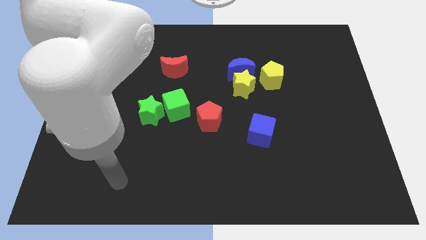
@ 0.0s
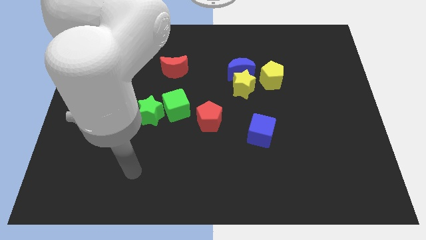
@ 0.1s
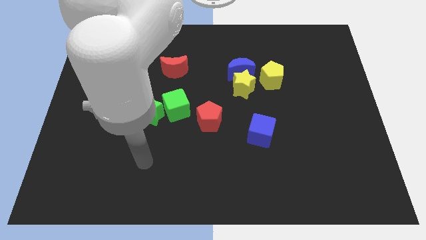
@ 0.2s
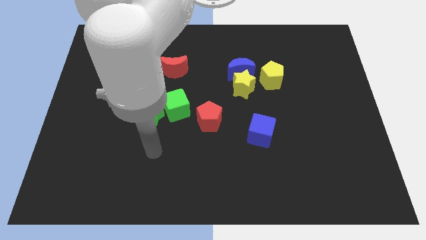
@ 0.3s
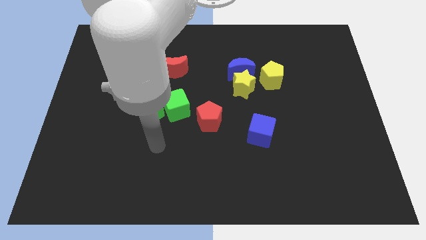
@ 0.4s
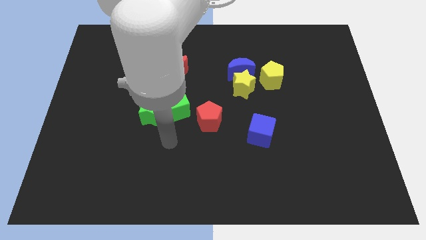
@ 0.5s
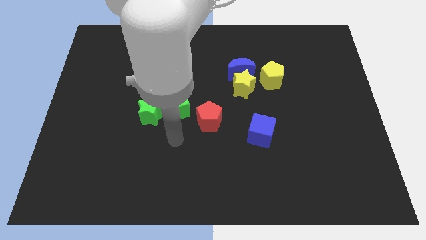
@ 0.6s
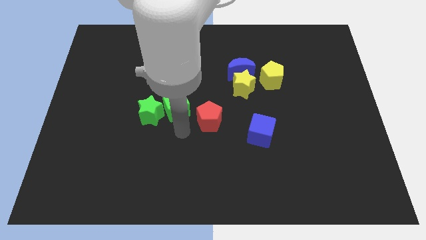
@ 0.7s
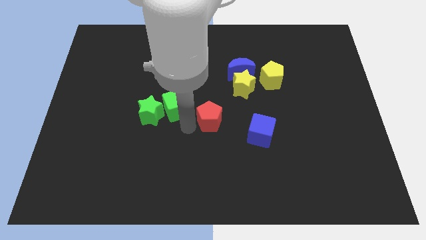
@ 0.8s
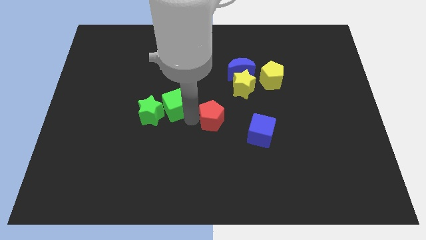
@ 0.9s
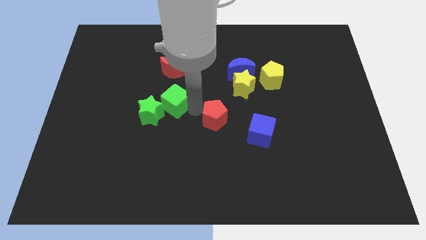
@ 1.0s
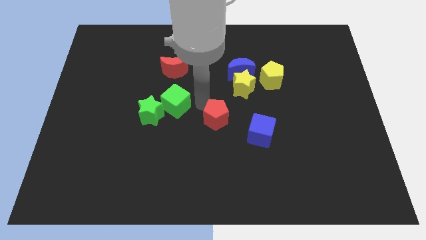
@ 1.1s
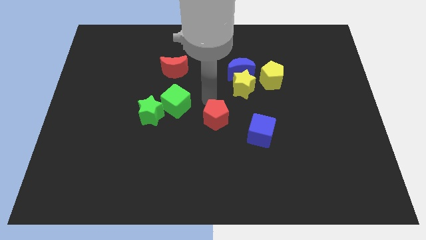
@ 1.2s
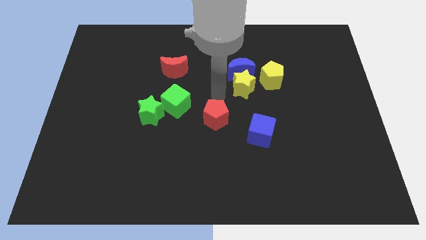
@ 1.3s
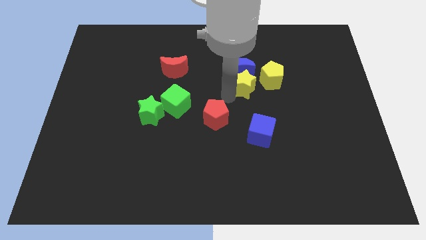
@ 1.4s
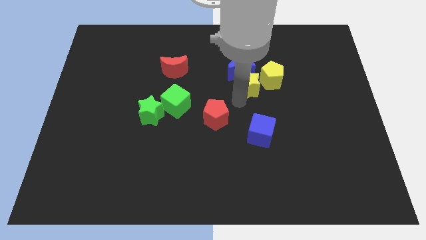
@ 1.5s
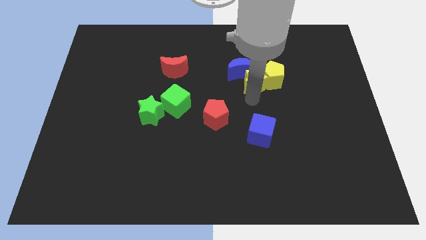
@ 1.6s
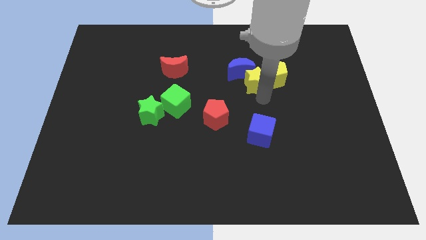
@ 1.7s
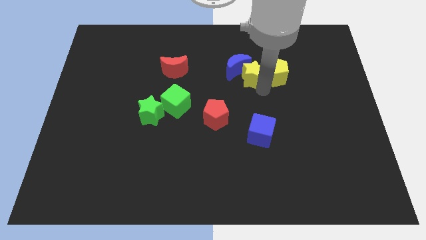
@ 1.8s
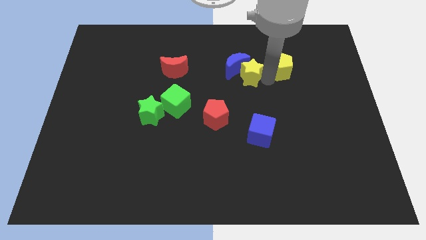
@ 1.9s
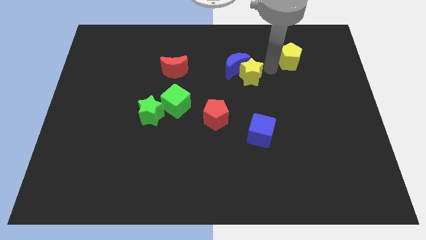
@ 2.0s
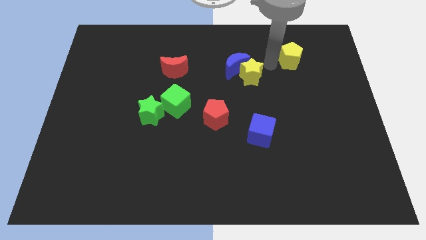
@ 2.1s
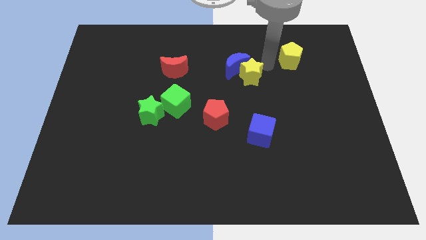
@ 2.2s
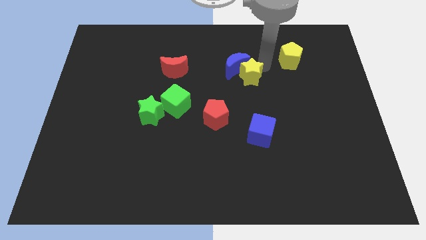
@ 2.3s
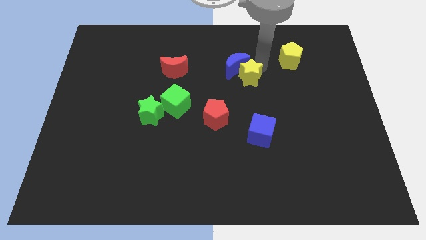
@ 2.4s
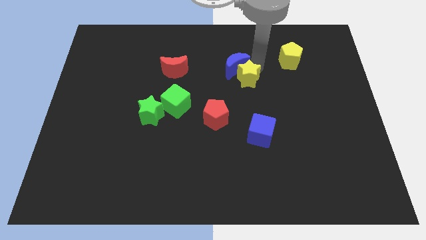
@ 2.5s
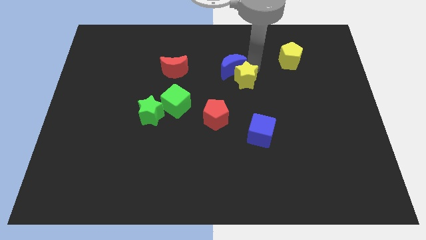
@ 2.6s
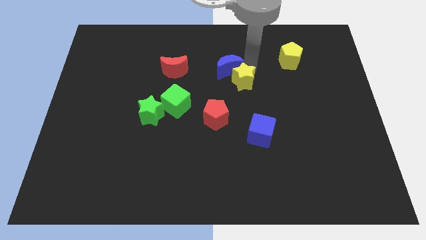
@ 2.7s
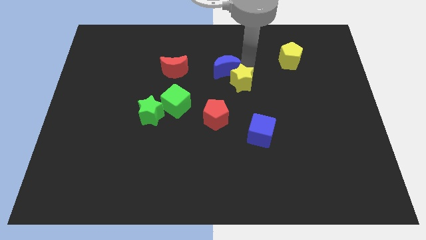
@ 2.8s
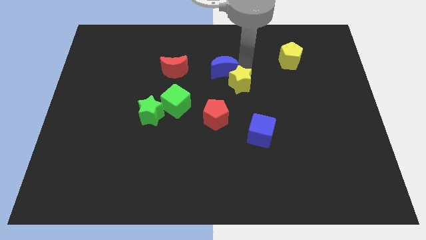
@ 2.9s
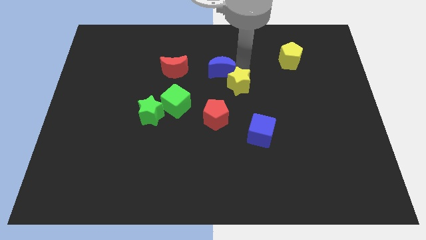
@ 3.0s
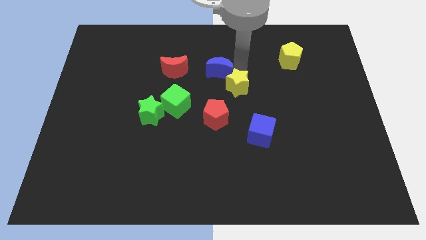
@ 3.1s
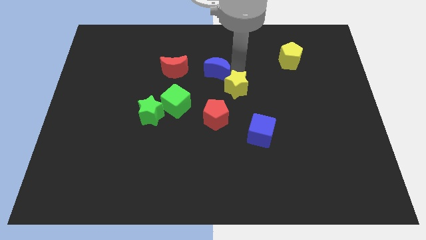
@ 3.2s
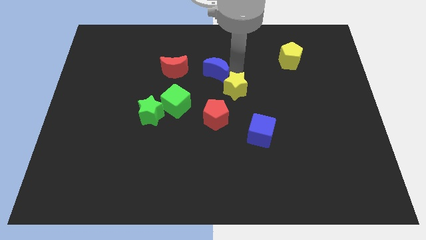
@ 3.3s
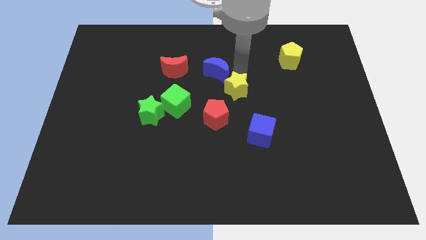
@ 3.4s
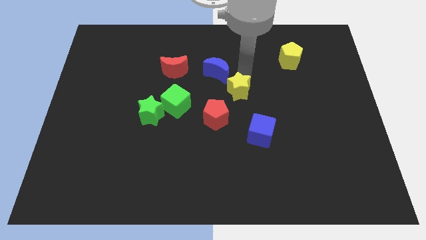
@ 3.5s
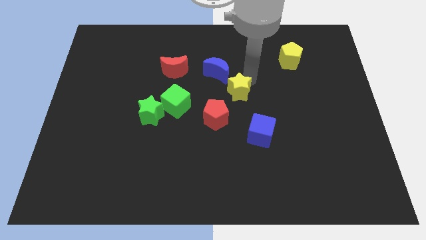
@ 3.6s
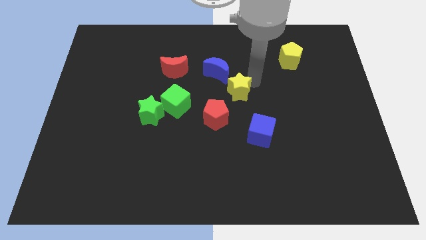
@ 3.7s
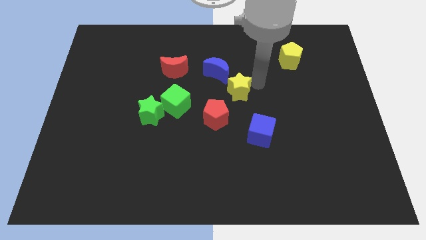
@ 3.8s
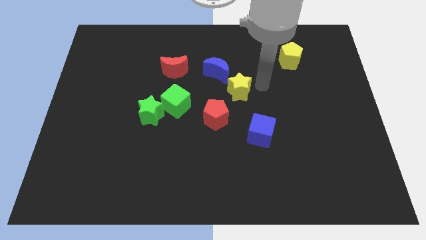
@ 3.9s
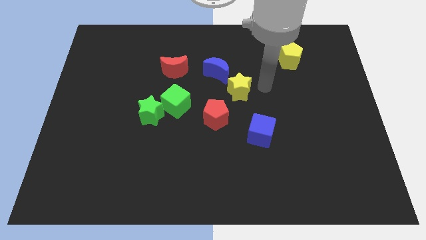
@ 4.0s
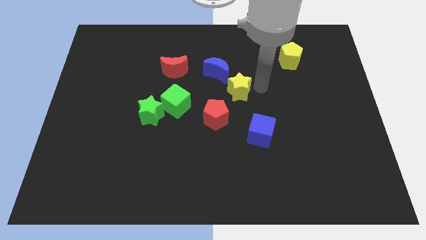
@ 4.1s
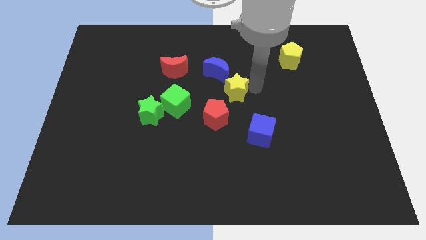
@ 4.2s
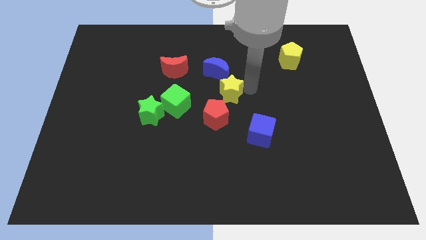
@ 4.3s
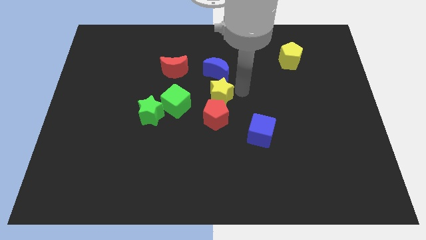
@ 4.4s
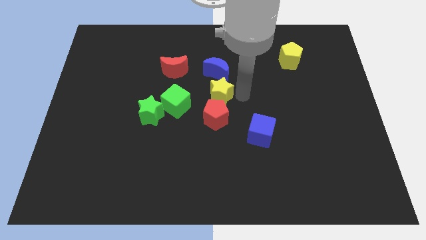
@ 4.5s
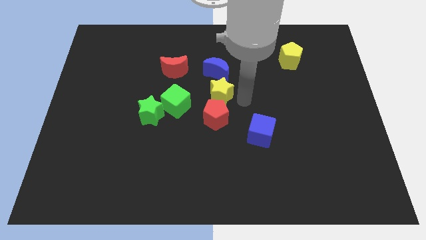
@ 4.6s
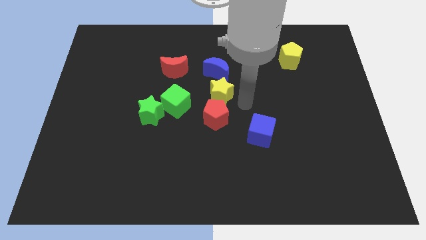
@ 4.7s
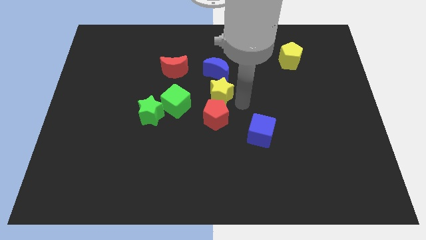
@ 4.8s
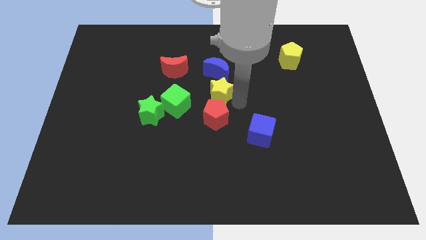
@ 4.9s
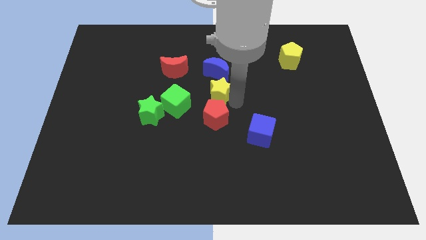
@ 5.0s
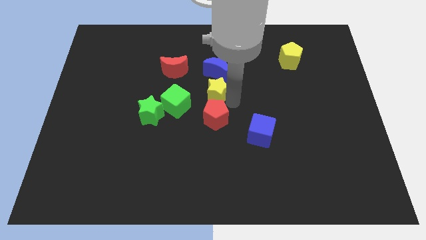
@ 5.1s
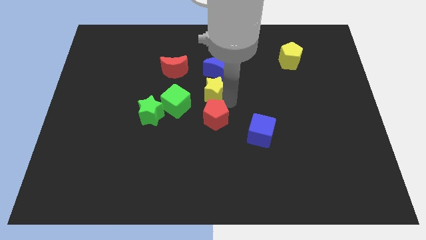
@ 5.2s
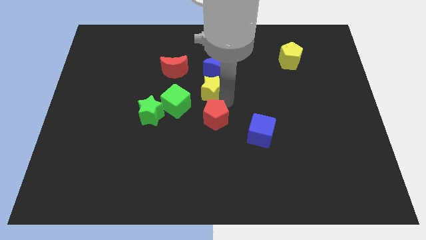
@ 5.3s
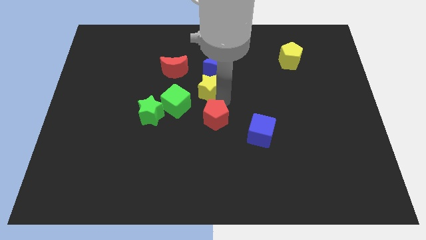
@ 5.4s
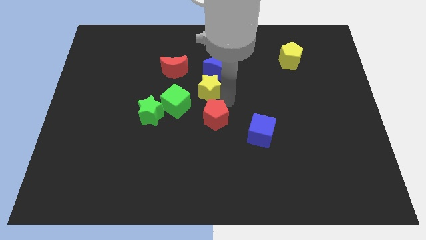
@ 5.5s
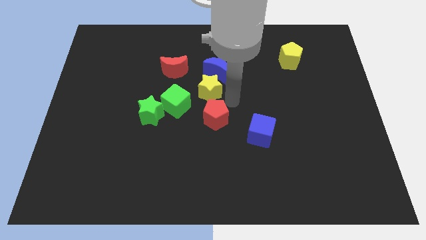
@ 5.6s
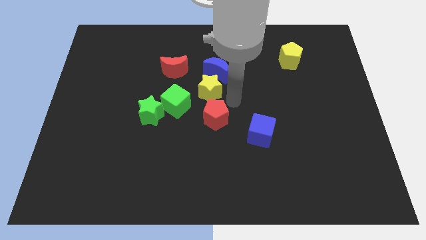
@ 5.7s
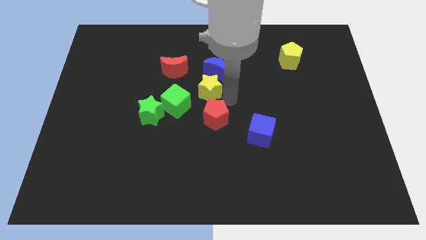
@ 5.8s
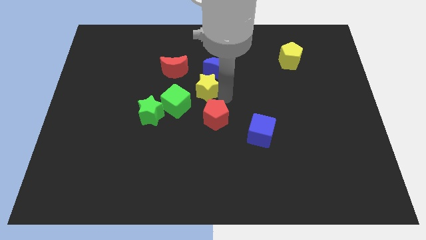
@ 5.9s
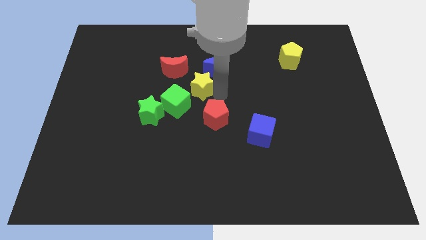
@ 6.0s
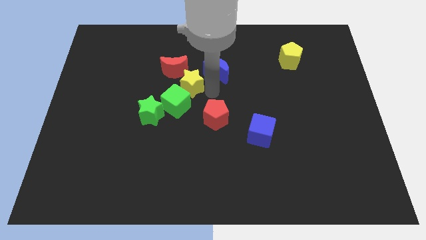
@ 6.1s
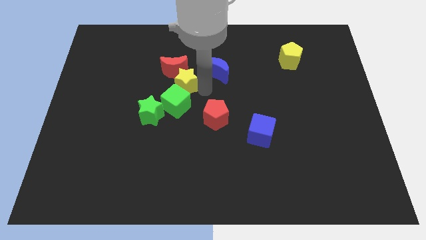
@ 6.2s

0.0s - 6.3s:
put the yellow star close to the red moon

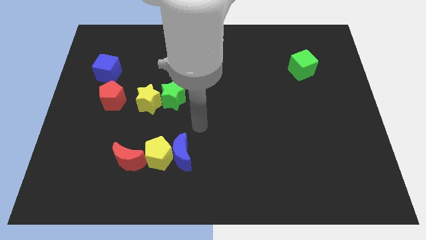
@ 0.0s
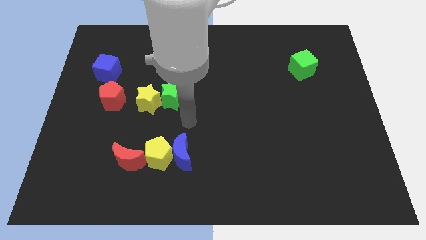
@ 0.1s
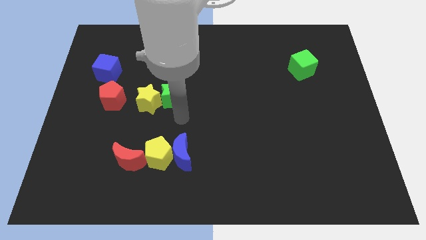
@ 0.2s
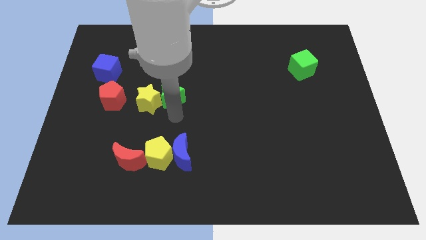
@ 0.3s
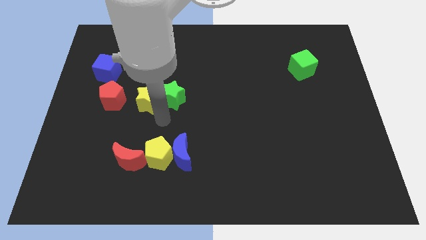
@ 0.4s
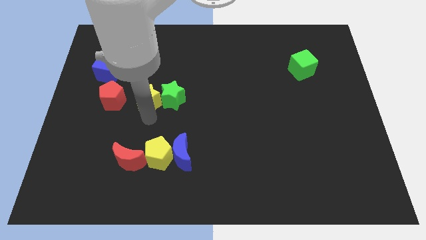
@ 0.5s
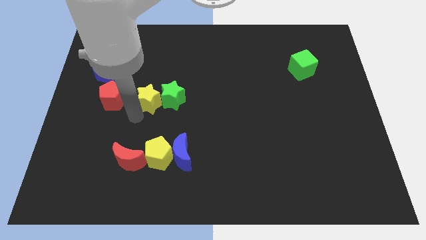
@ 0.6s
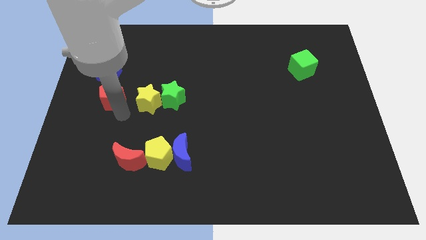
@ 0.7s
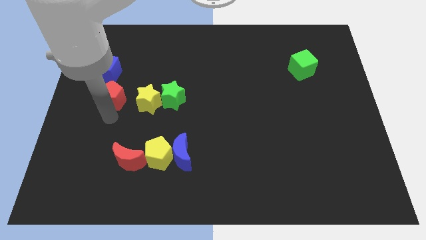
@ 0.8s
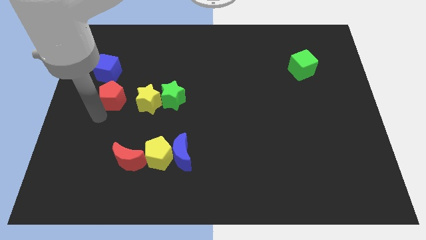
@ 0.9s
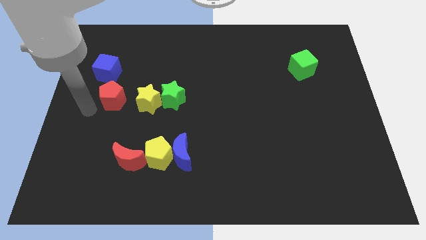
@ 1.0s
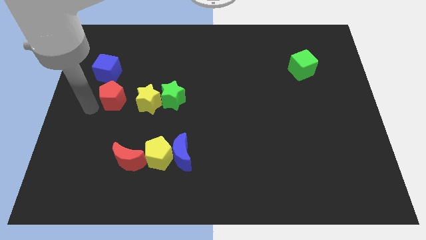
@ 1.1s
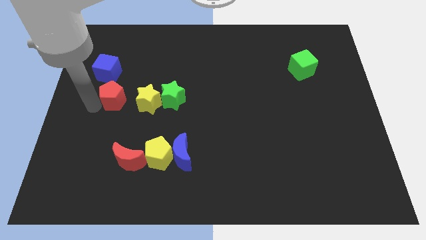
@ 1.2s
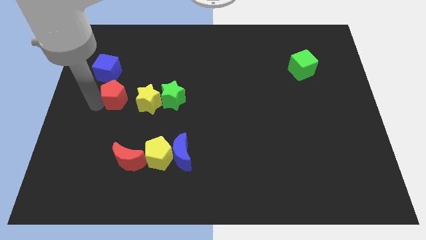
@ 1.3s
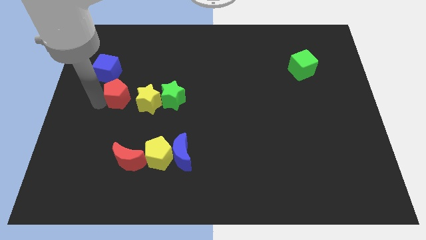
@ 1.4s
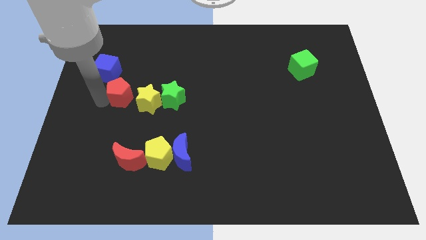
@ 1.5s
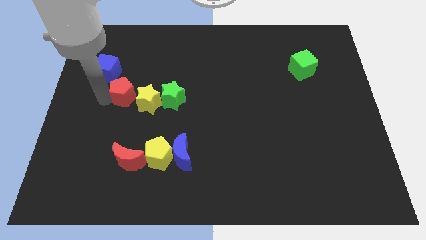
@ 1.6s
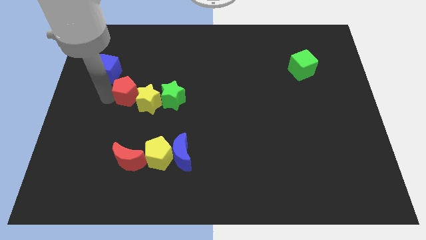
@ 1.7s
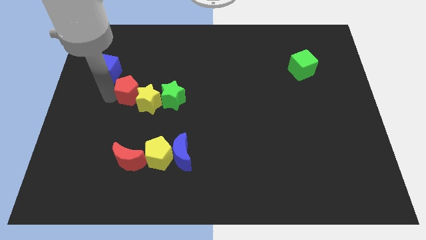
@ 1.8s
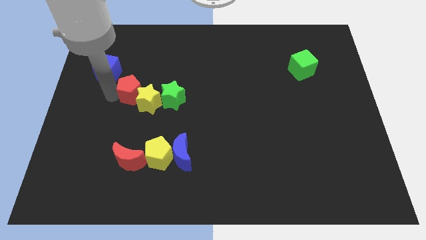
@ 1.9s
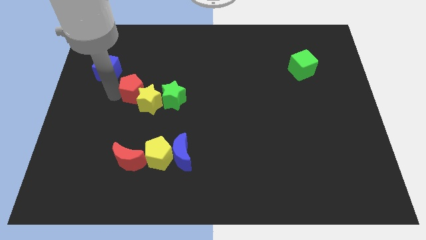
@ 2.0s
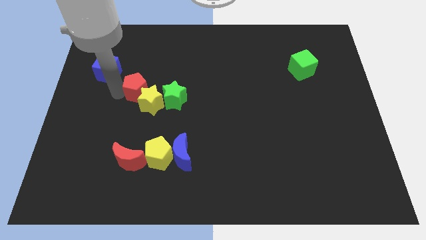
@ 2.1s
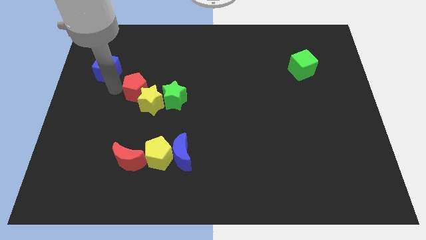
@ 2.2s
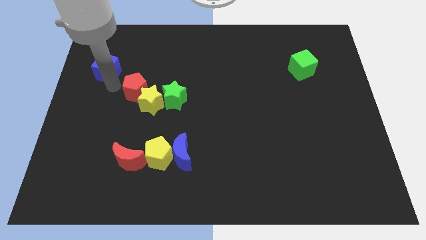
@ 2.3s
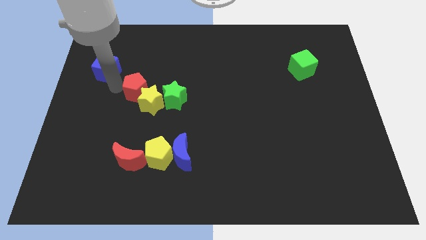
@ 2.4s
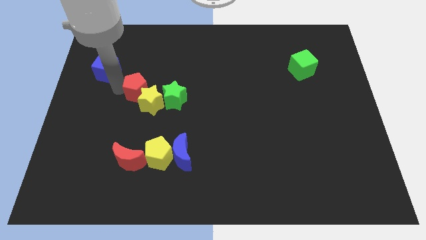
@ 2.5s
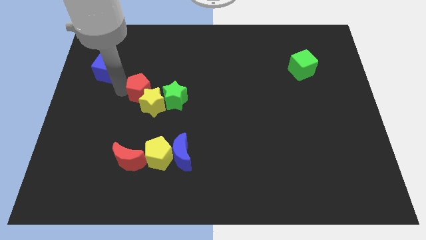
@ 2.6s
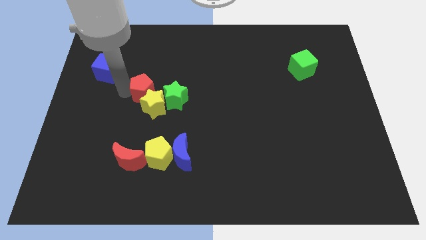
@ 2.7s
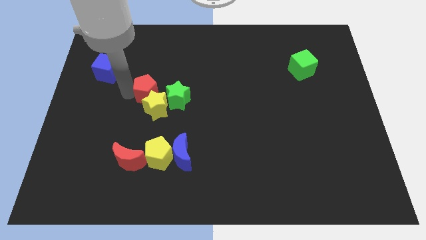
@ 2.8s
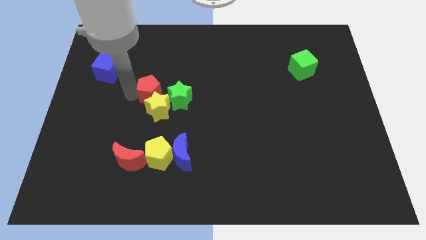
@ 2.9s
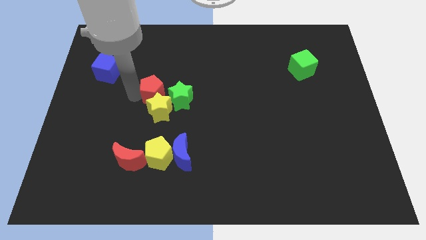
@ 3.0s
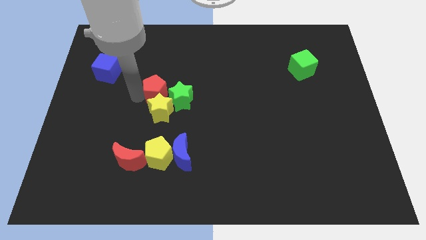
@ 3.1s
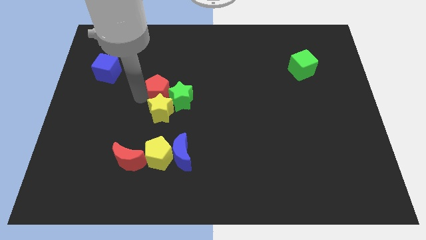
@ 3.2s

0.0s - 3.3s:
slide the red pentagon towards the green star
